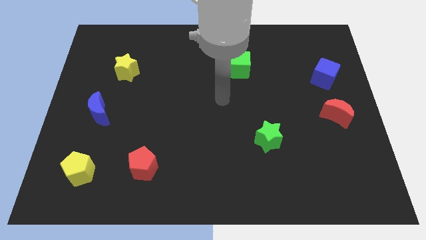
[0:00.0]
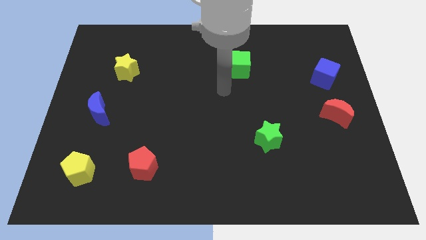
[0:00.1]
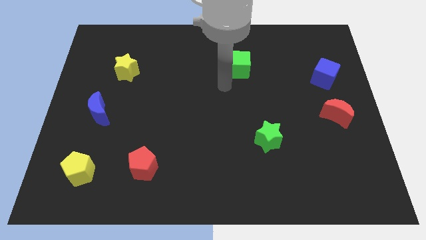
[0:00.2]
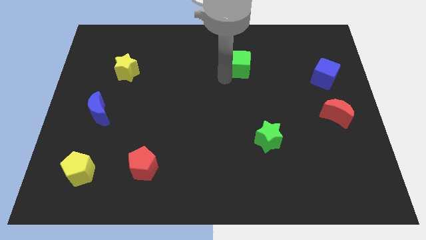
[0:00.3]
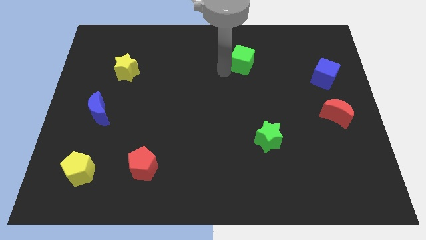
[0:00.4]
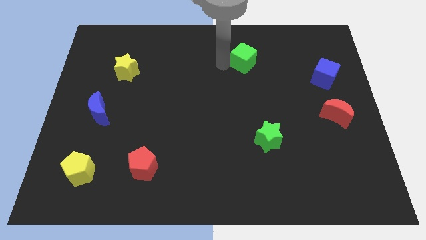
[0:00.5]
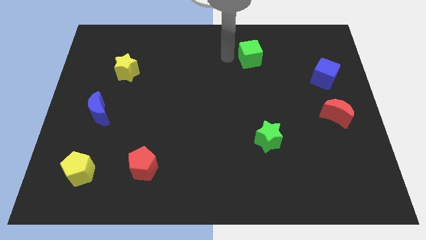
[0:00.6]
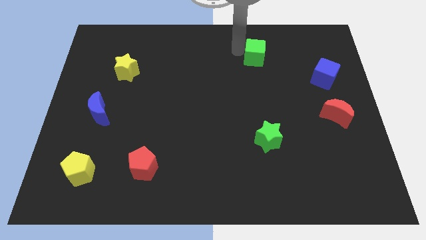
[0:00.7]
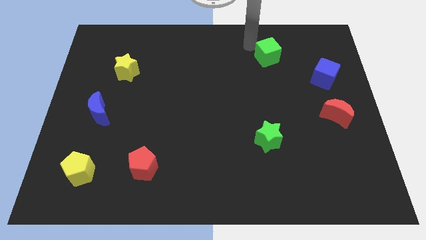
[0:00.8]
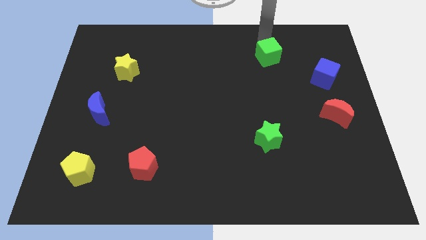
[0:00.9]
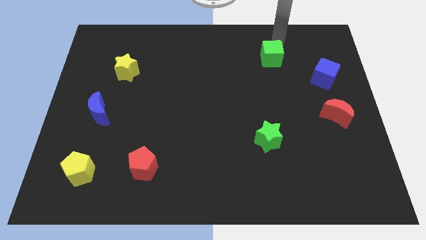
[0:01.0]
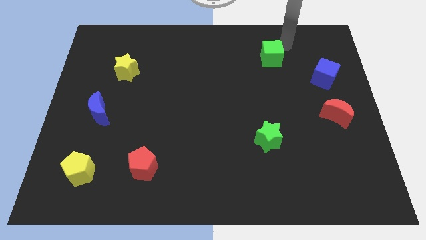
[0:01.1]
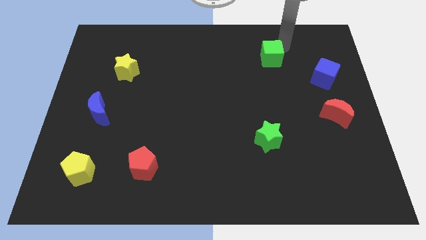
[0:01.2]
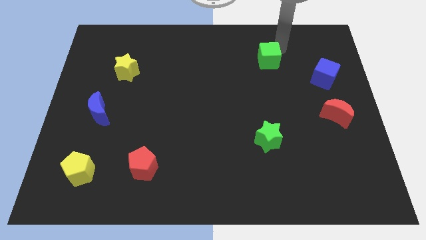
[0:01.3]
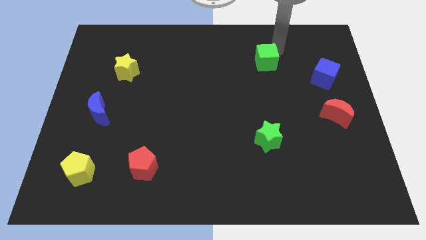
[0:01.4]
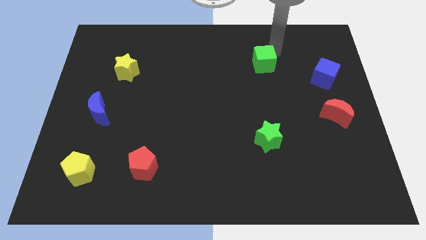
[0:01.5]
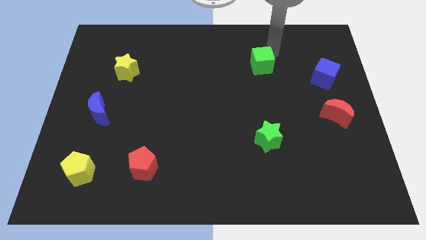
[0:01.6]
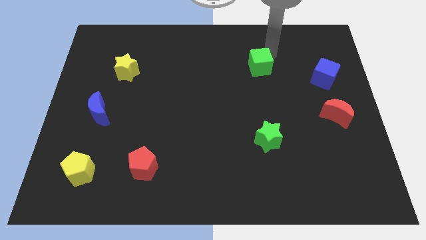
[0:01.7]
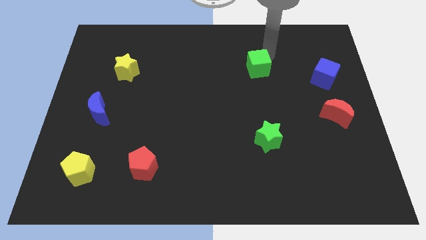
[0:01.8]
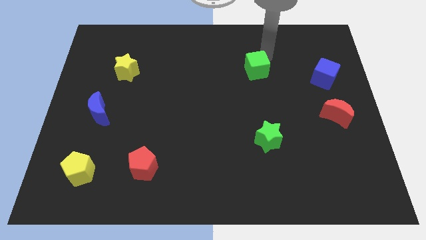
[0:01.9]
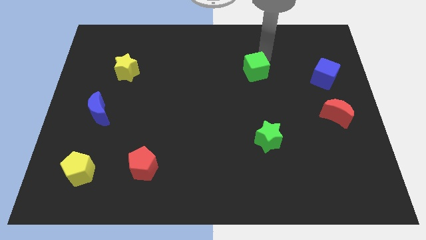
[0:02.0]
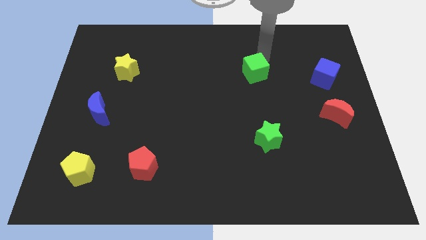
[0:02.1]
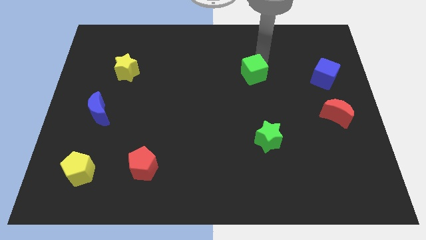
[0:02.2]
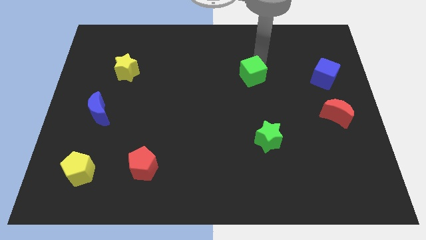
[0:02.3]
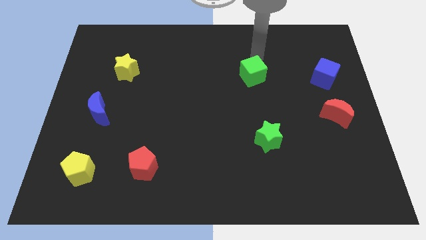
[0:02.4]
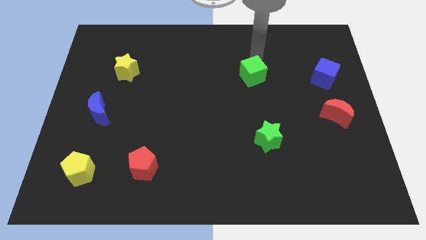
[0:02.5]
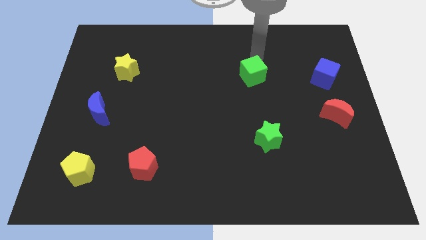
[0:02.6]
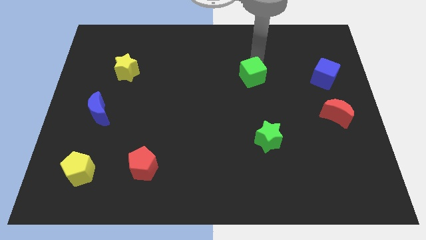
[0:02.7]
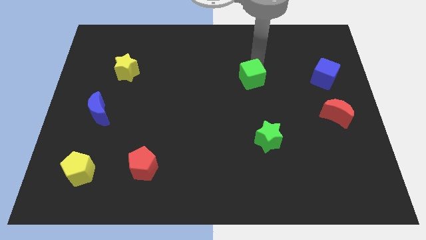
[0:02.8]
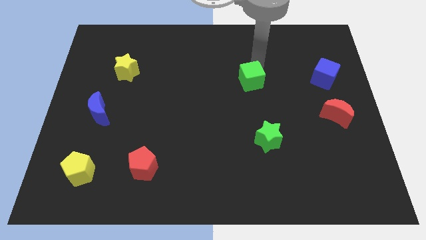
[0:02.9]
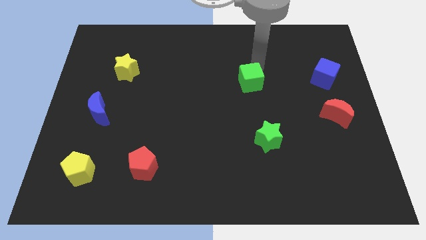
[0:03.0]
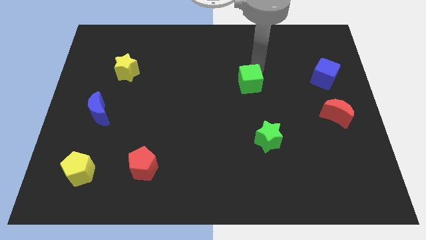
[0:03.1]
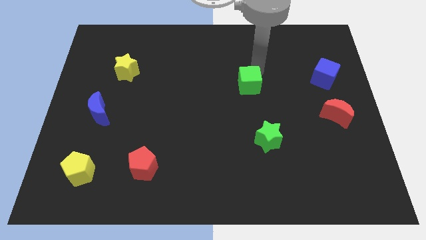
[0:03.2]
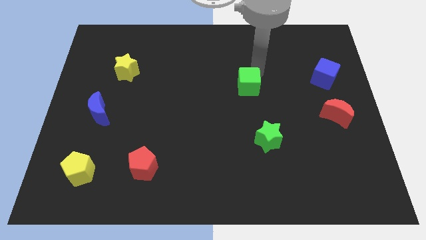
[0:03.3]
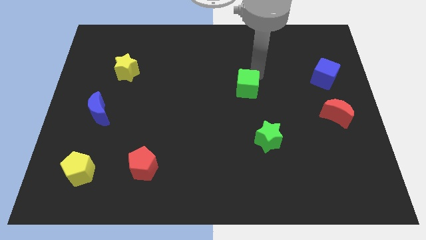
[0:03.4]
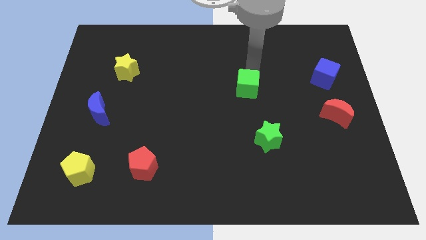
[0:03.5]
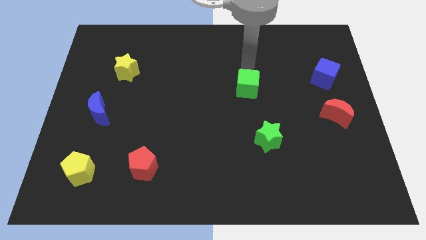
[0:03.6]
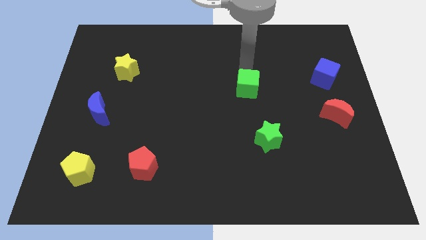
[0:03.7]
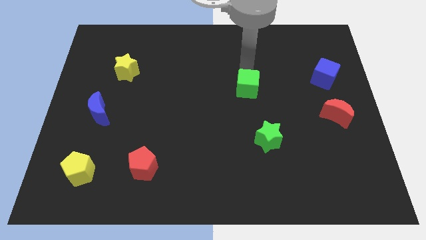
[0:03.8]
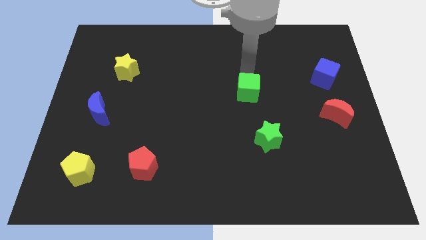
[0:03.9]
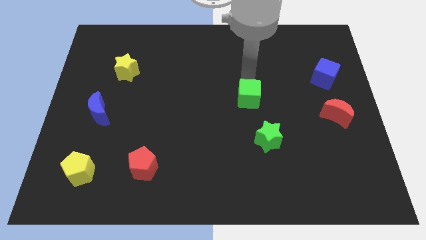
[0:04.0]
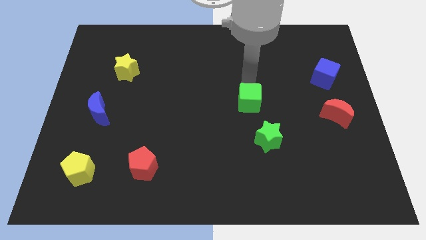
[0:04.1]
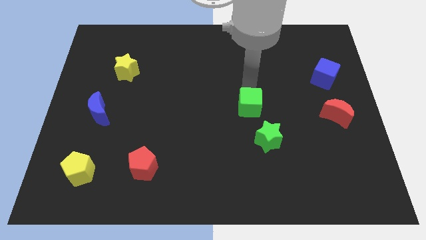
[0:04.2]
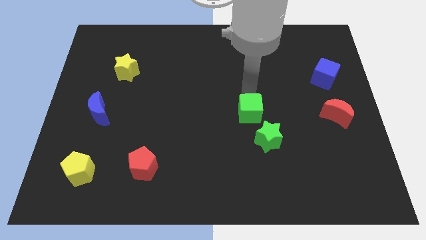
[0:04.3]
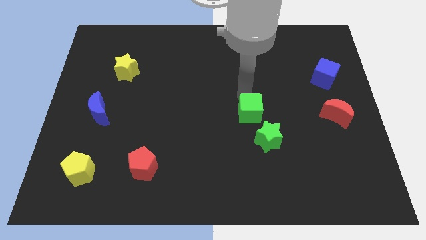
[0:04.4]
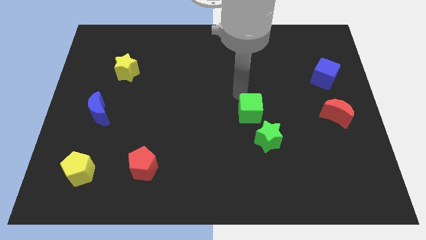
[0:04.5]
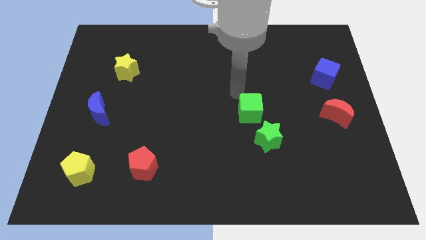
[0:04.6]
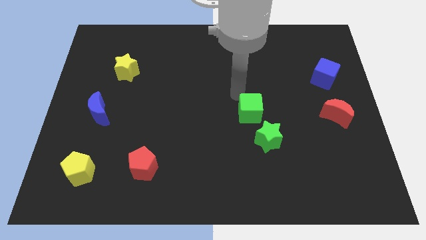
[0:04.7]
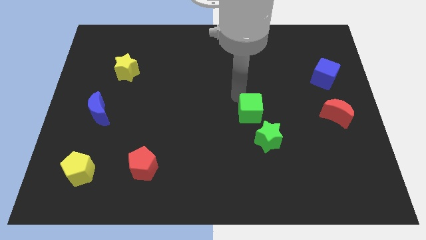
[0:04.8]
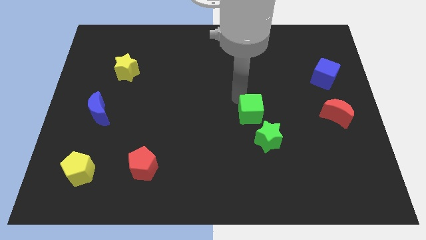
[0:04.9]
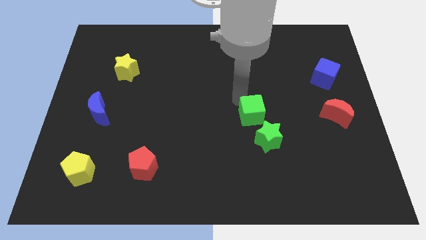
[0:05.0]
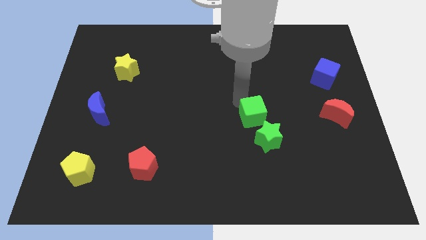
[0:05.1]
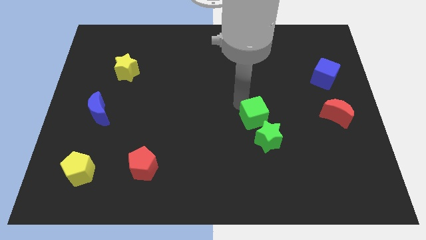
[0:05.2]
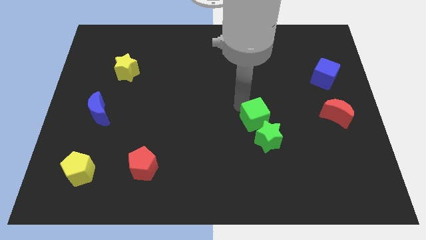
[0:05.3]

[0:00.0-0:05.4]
move the green cube next to the green star

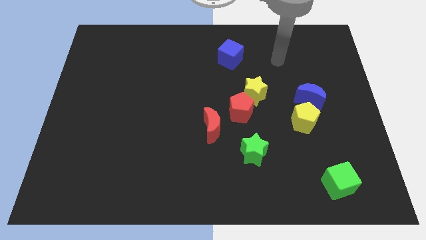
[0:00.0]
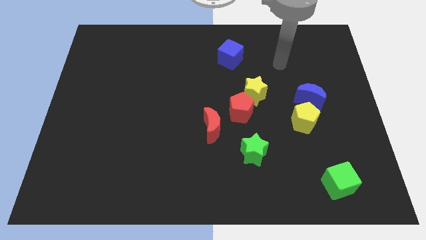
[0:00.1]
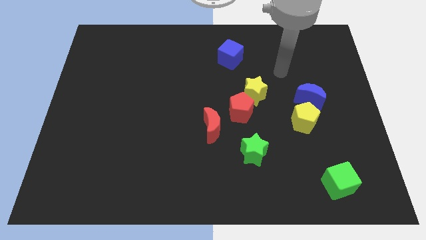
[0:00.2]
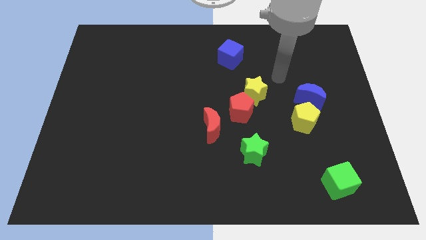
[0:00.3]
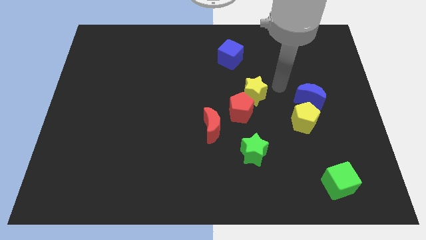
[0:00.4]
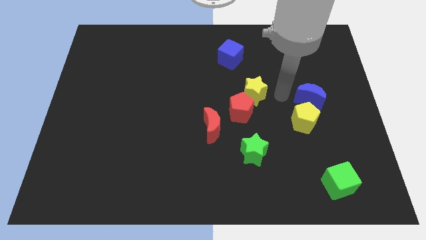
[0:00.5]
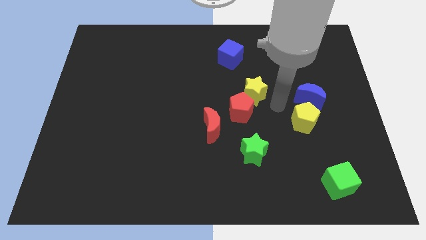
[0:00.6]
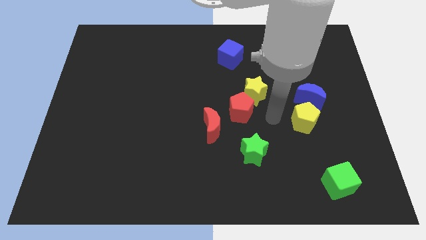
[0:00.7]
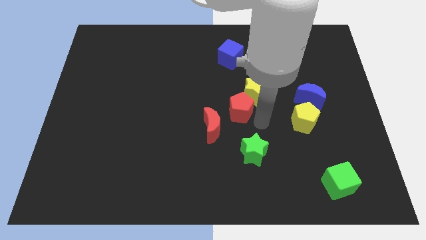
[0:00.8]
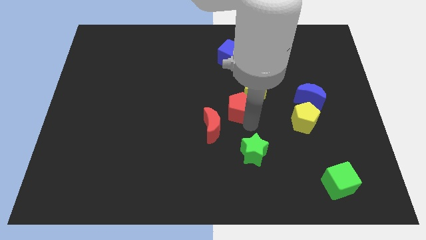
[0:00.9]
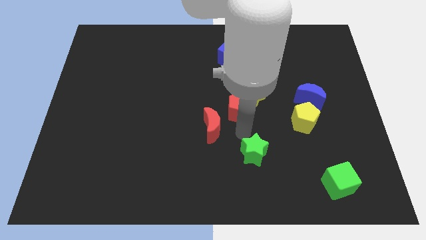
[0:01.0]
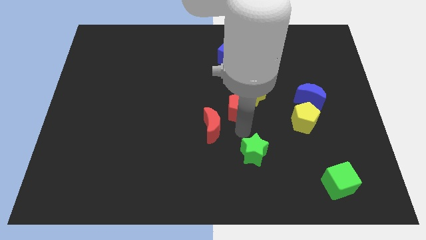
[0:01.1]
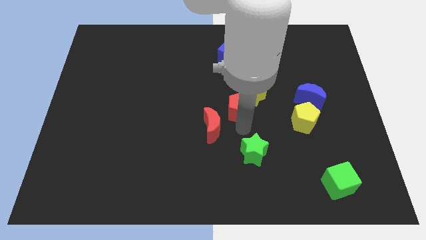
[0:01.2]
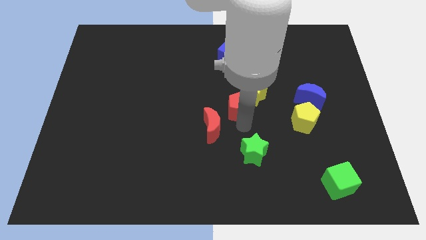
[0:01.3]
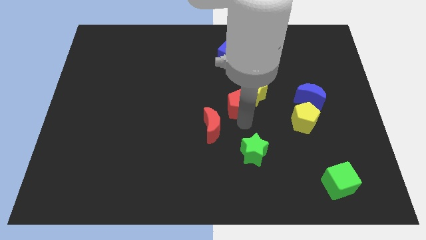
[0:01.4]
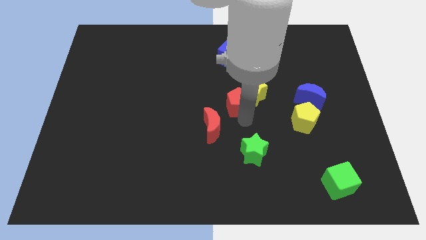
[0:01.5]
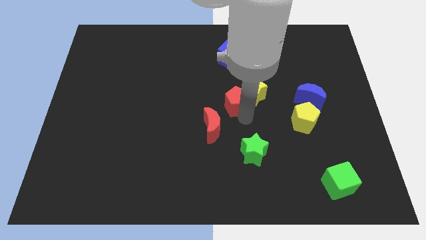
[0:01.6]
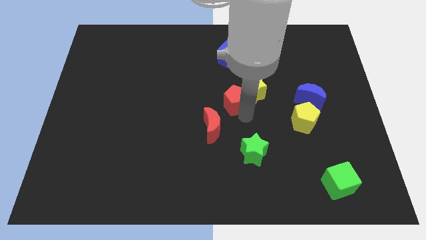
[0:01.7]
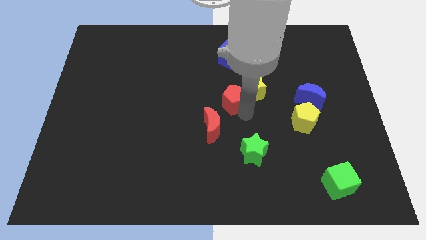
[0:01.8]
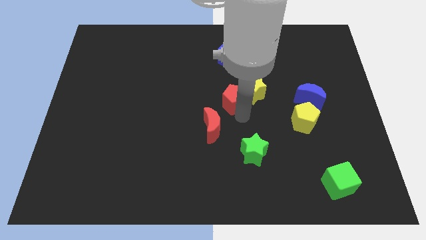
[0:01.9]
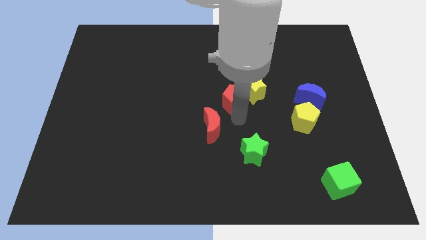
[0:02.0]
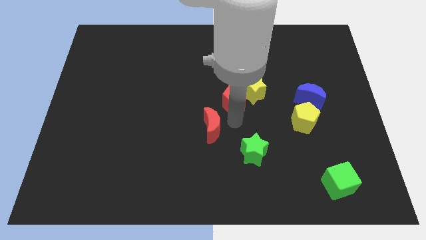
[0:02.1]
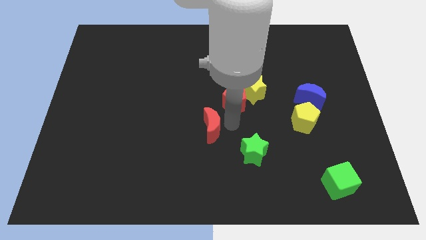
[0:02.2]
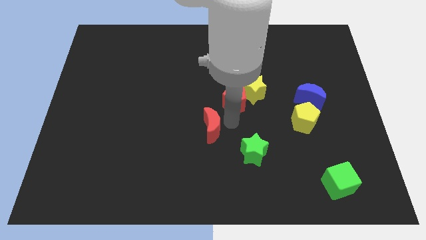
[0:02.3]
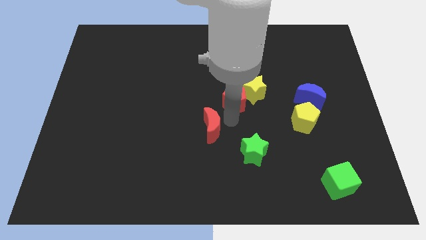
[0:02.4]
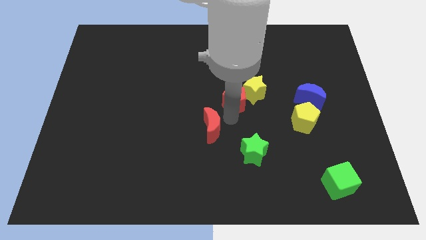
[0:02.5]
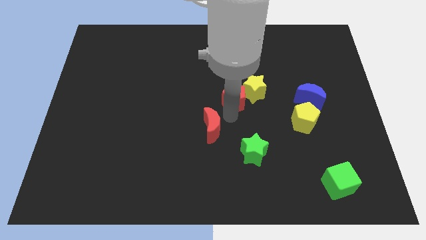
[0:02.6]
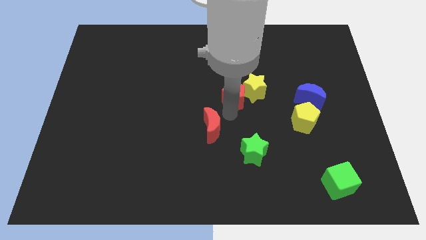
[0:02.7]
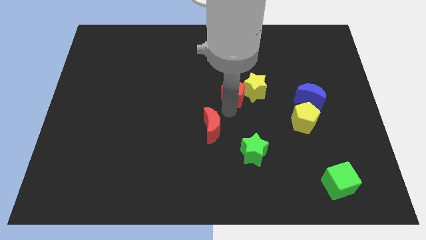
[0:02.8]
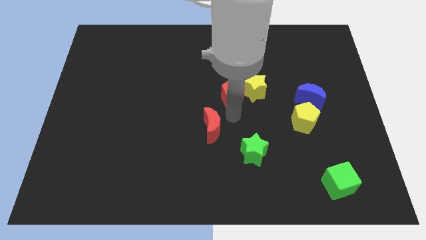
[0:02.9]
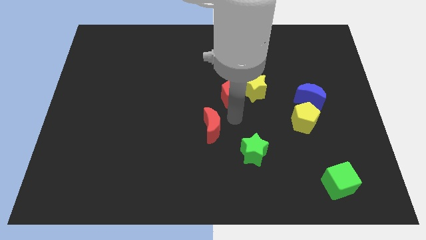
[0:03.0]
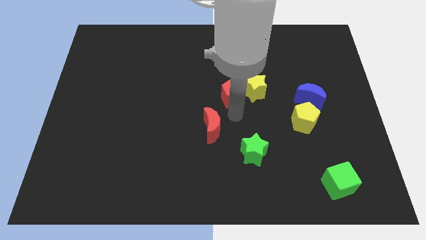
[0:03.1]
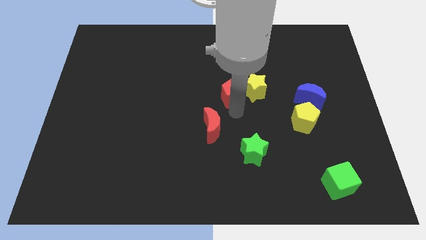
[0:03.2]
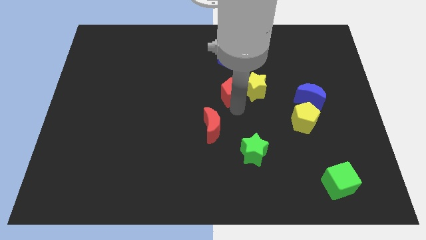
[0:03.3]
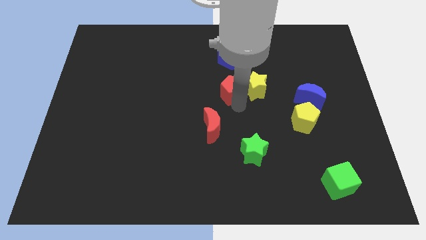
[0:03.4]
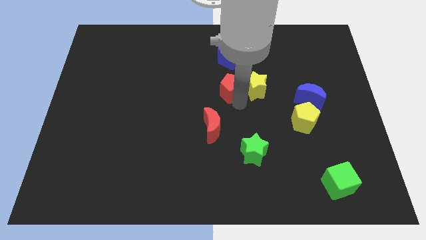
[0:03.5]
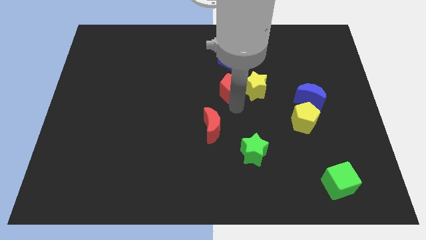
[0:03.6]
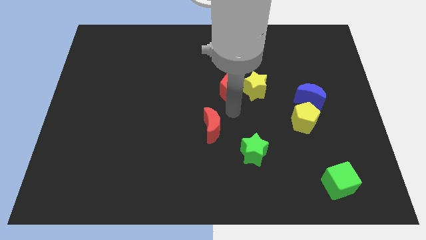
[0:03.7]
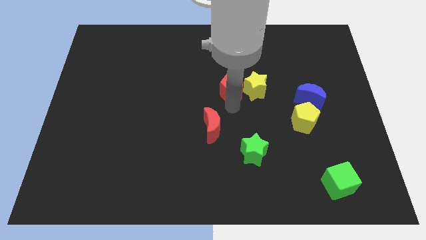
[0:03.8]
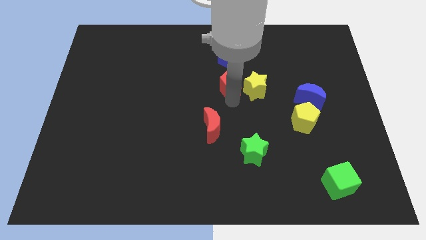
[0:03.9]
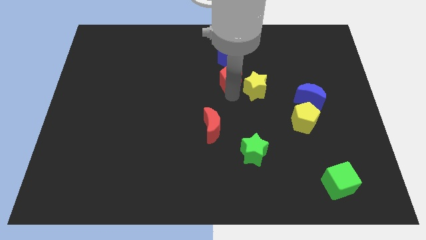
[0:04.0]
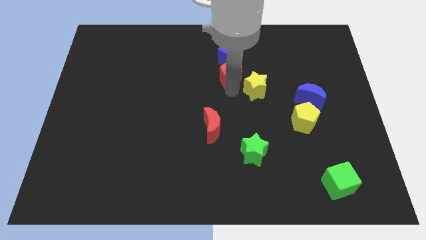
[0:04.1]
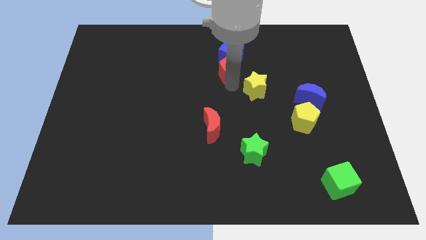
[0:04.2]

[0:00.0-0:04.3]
push the red pentagon next to the blue cube
